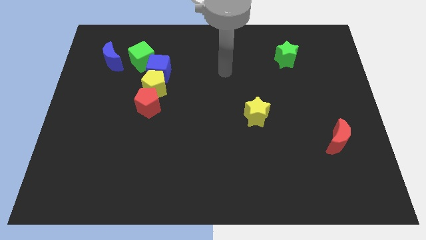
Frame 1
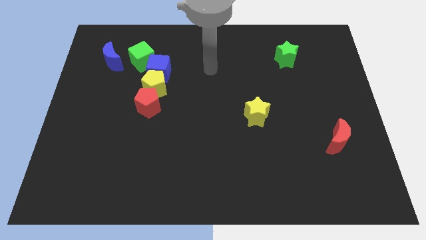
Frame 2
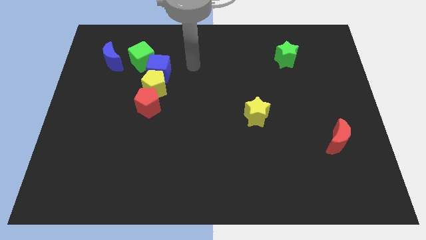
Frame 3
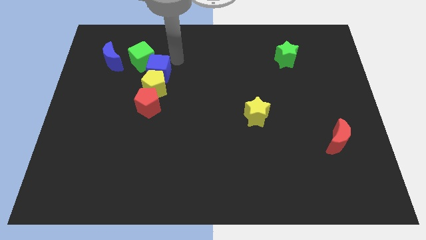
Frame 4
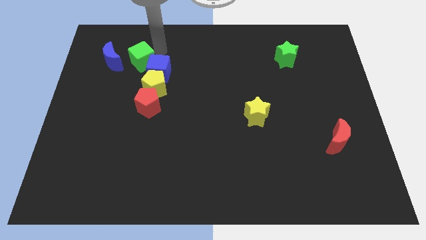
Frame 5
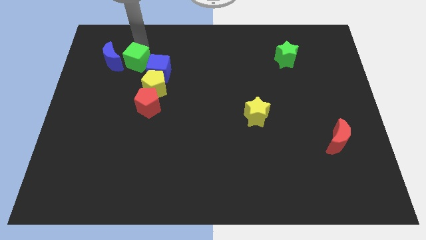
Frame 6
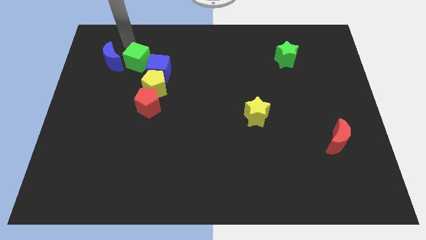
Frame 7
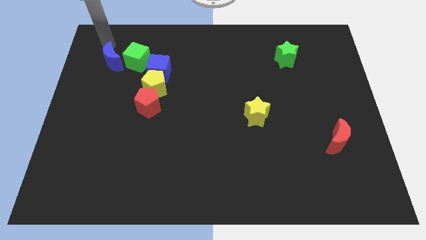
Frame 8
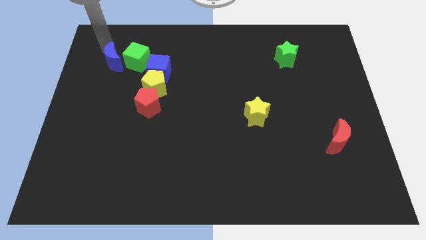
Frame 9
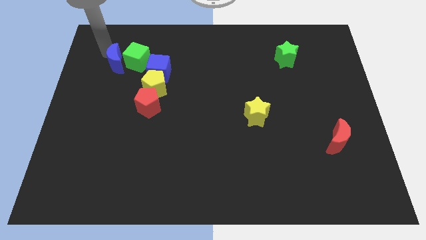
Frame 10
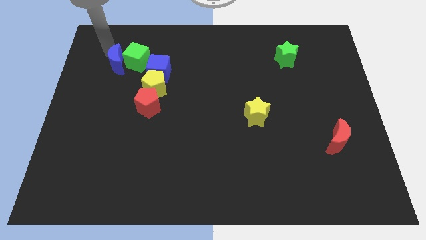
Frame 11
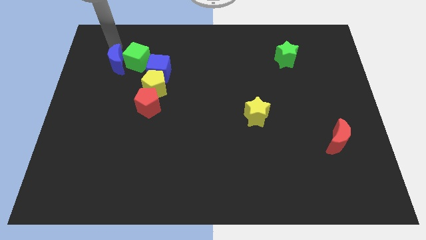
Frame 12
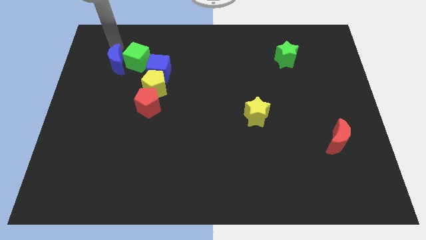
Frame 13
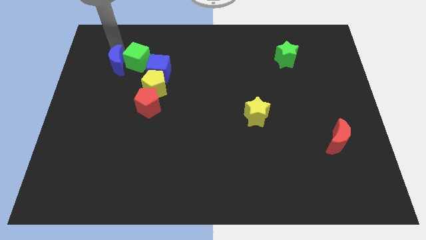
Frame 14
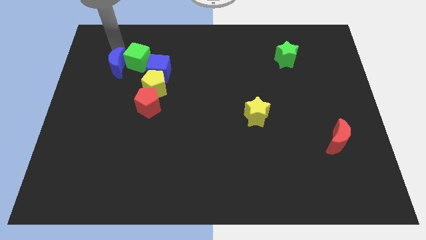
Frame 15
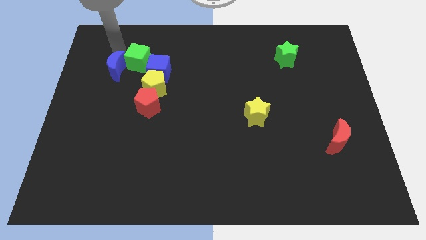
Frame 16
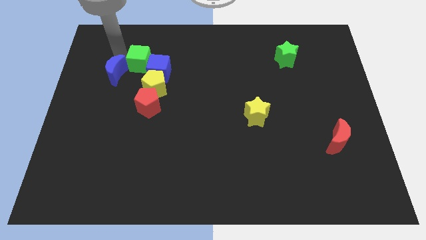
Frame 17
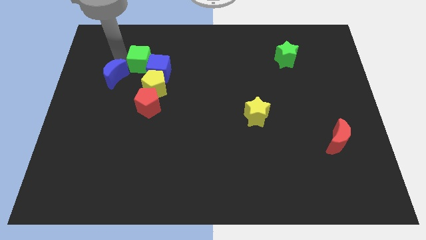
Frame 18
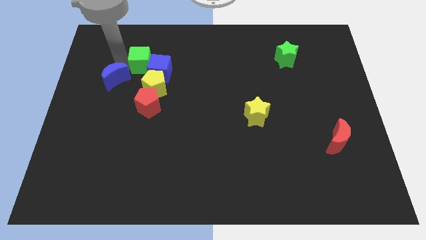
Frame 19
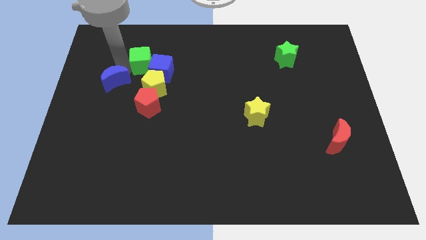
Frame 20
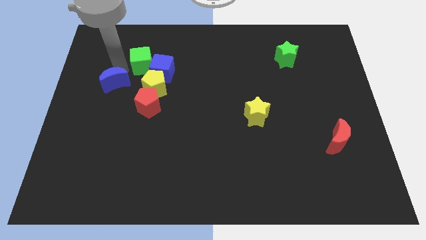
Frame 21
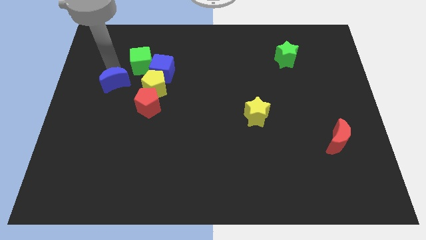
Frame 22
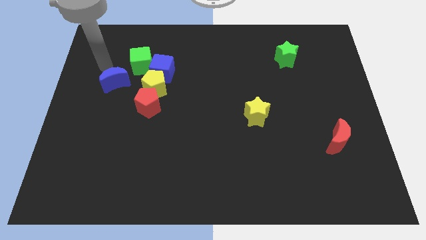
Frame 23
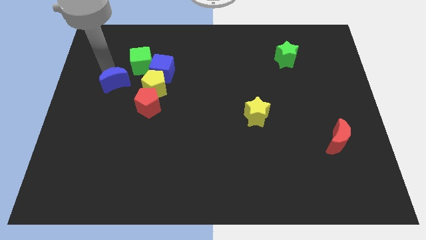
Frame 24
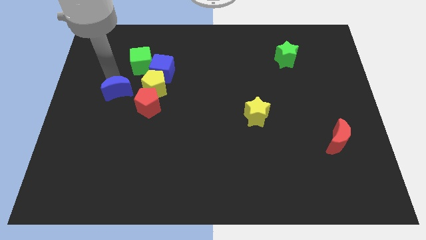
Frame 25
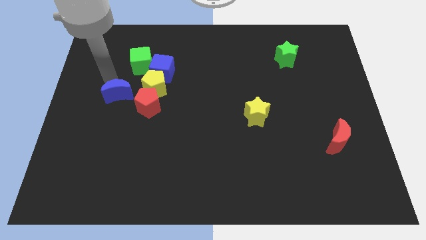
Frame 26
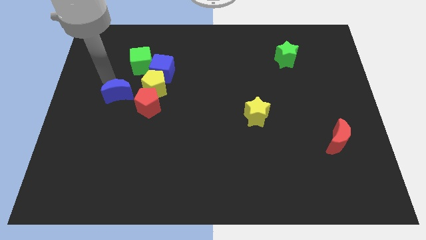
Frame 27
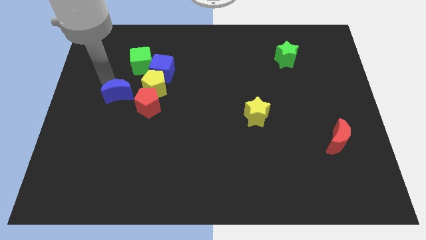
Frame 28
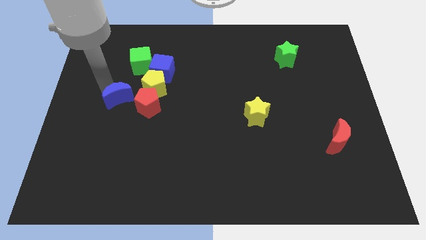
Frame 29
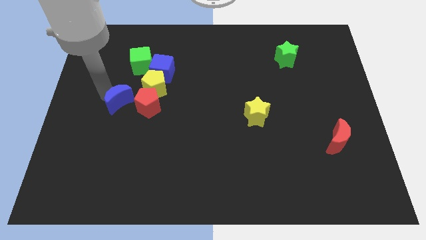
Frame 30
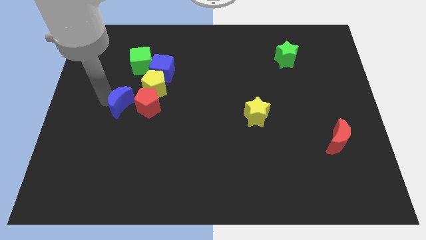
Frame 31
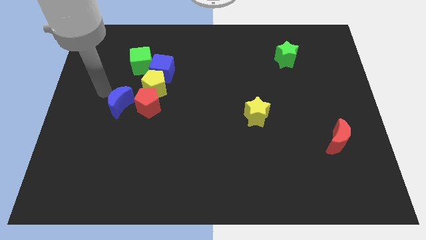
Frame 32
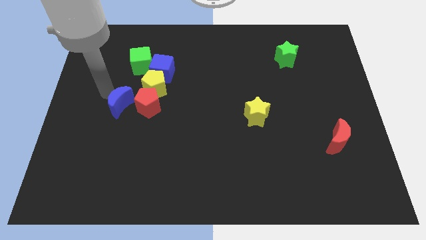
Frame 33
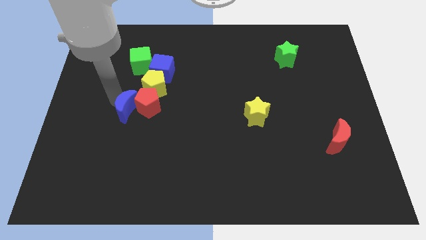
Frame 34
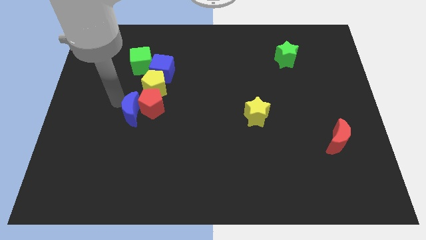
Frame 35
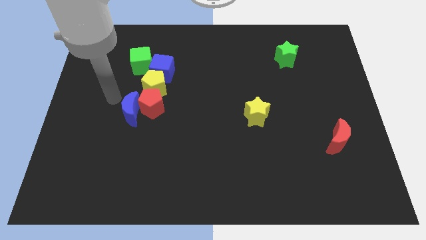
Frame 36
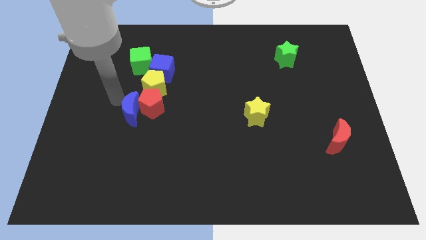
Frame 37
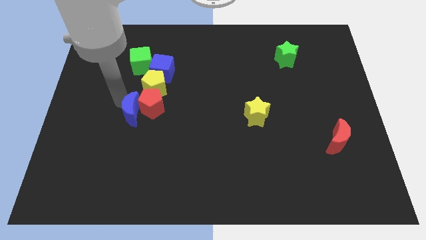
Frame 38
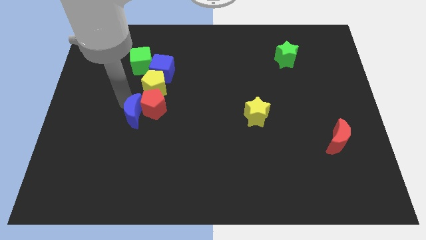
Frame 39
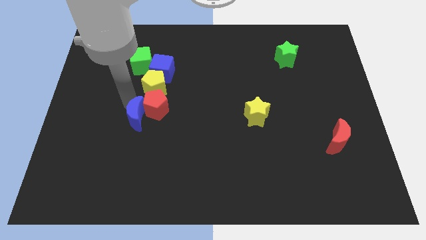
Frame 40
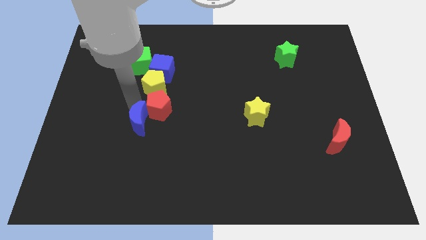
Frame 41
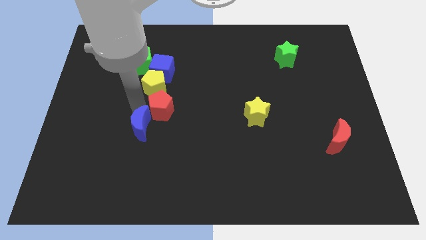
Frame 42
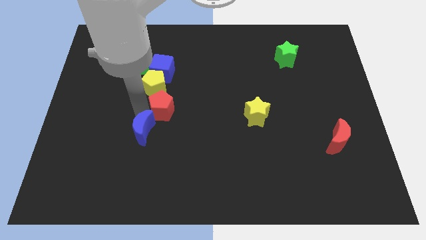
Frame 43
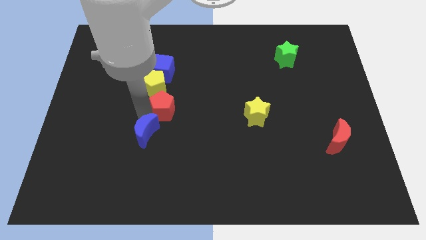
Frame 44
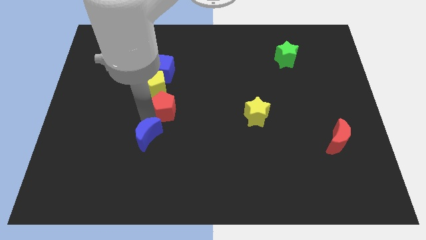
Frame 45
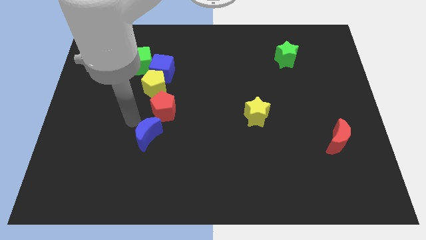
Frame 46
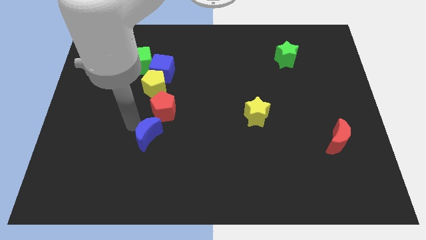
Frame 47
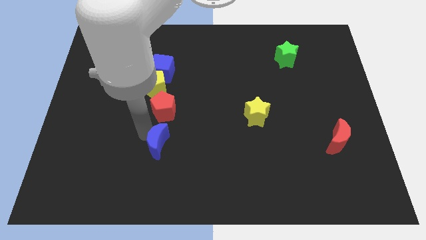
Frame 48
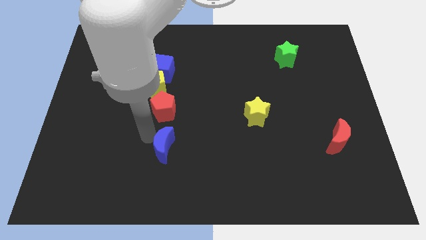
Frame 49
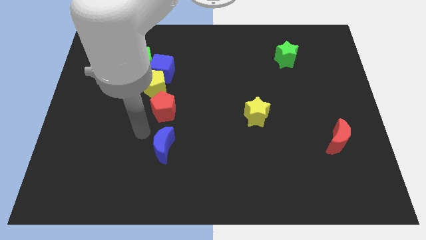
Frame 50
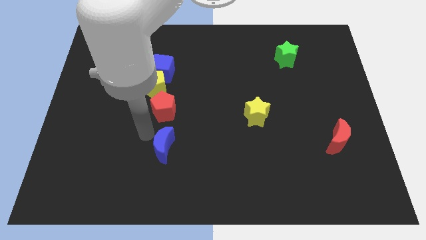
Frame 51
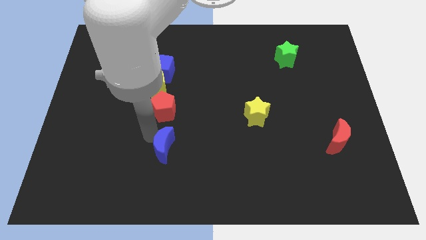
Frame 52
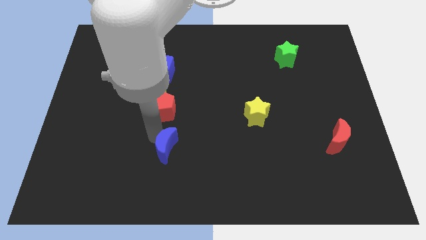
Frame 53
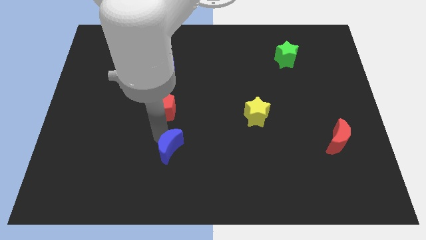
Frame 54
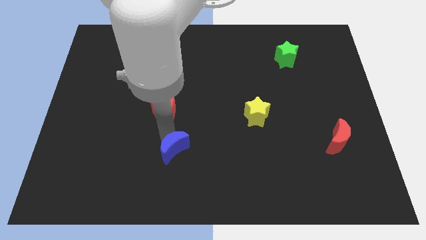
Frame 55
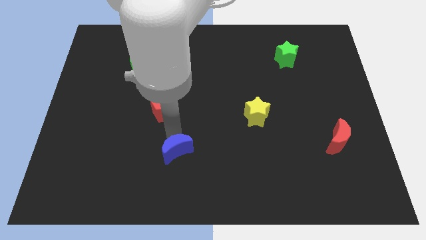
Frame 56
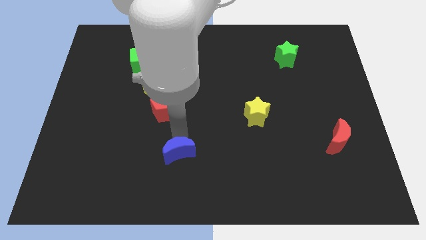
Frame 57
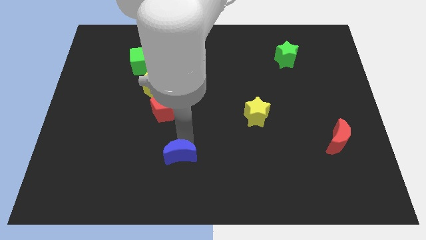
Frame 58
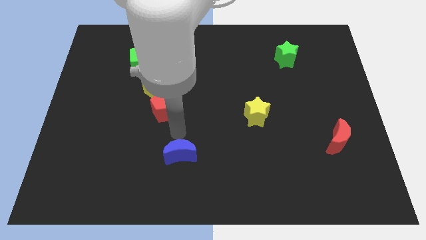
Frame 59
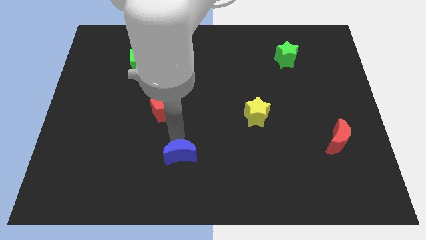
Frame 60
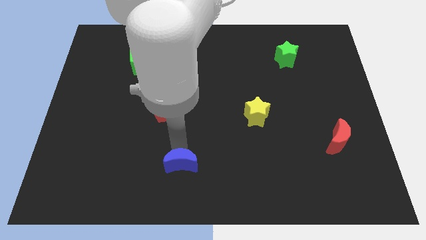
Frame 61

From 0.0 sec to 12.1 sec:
slide the blue moon to the bottom
